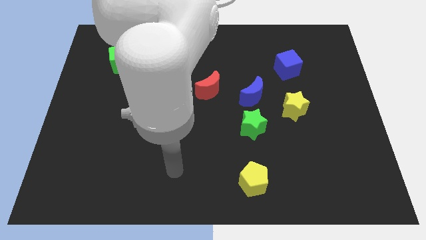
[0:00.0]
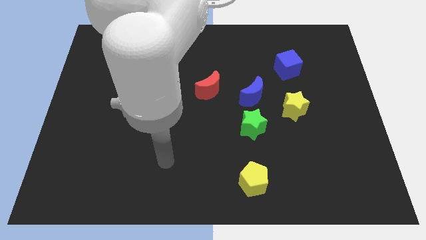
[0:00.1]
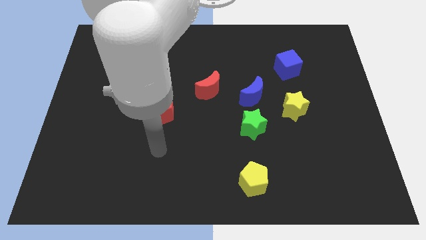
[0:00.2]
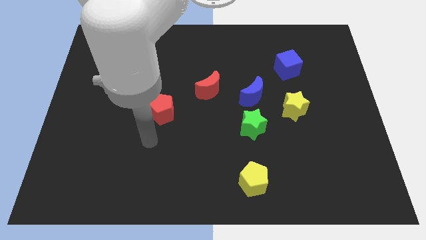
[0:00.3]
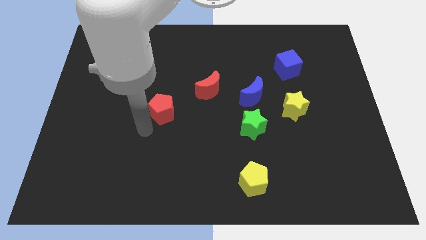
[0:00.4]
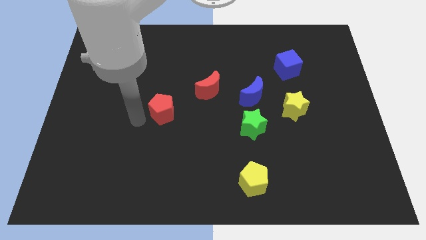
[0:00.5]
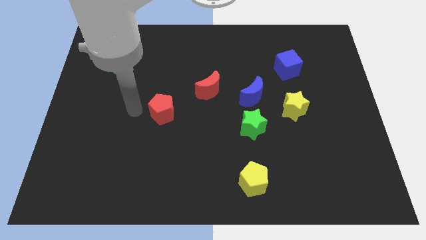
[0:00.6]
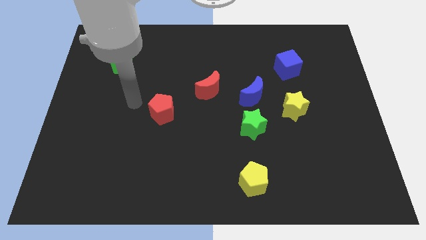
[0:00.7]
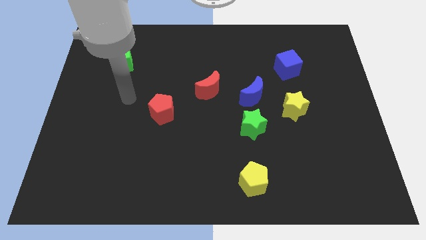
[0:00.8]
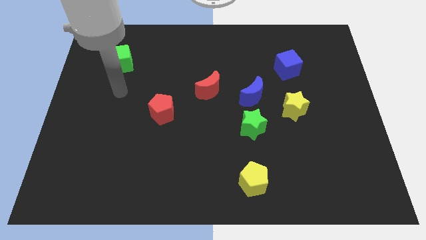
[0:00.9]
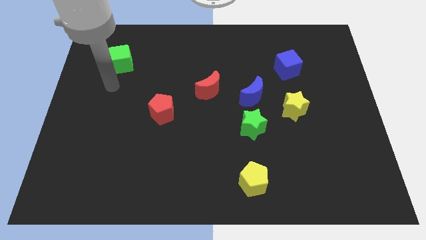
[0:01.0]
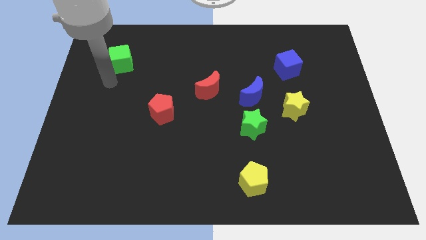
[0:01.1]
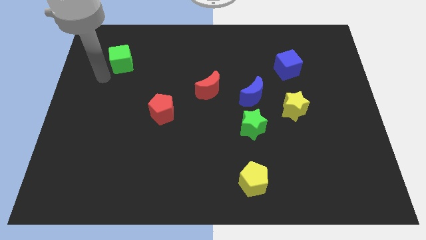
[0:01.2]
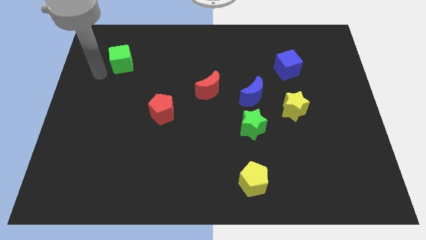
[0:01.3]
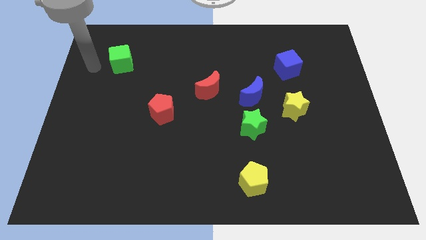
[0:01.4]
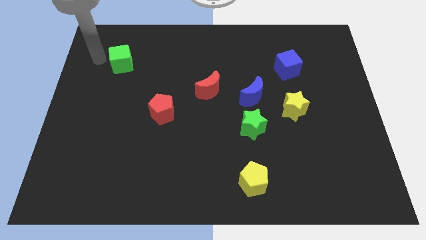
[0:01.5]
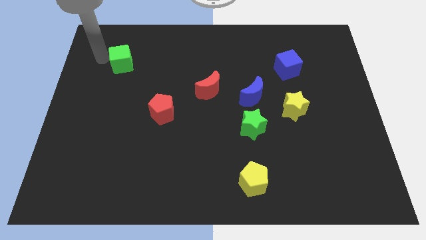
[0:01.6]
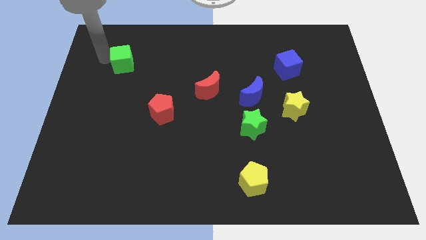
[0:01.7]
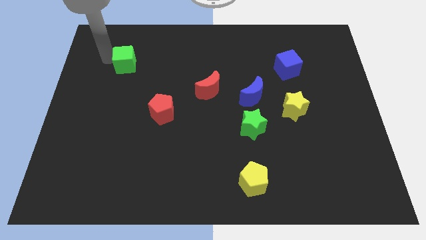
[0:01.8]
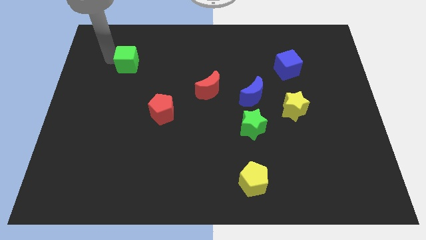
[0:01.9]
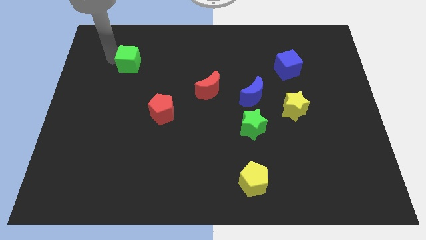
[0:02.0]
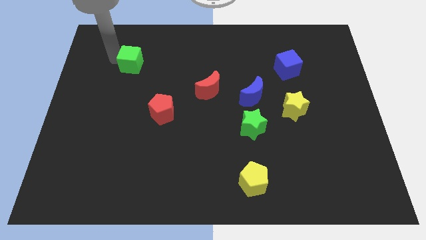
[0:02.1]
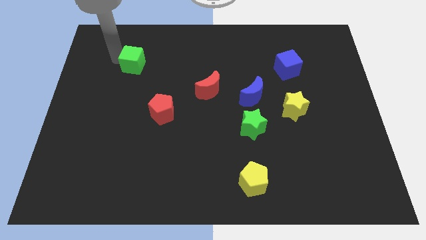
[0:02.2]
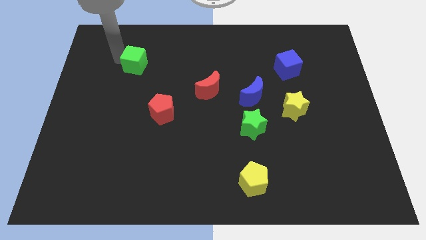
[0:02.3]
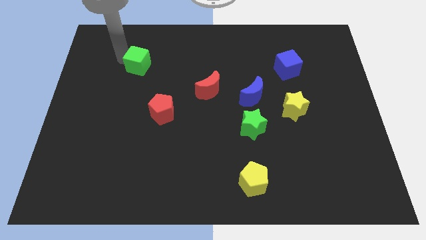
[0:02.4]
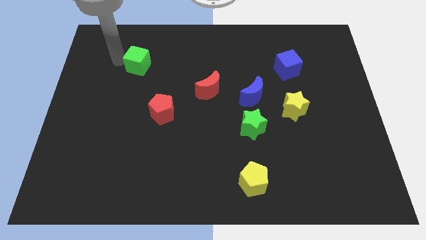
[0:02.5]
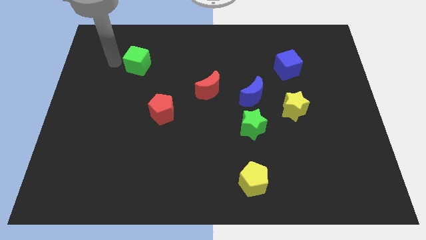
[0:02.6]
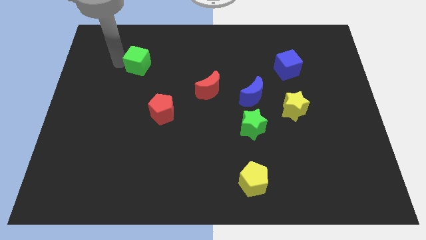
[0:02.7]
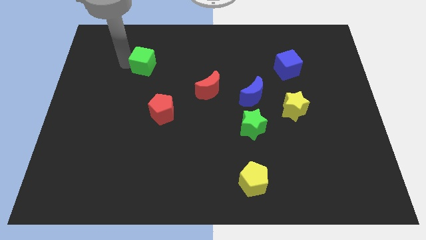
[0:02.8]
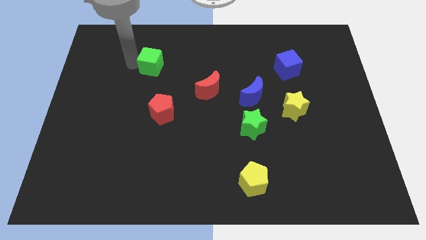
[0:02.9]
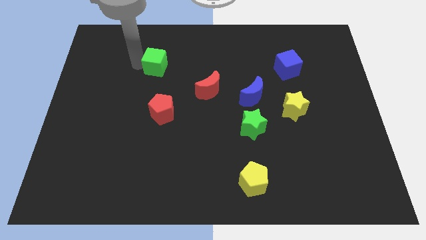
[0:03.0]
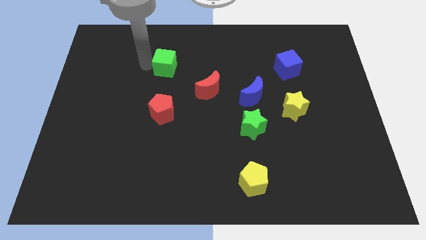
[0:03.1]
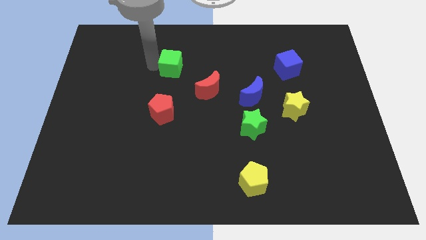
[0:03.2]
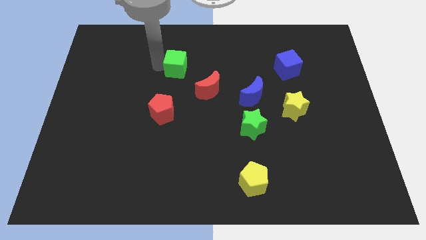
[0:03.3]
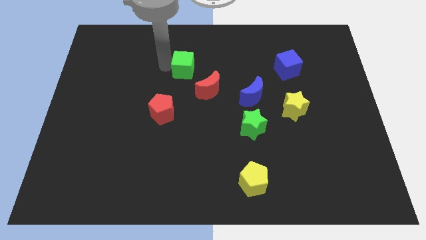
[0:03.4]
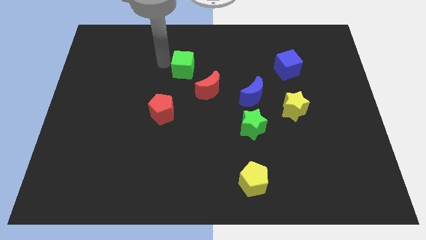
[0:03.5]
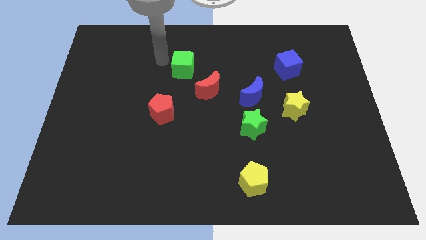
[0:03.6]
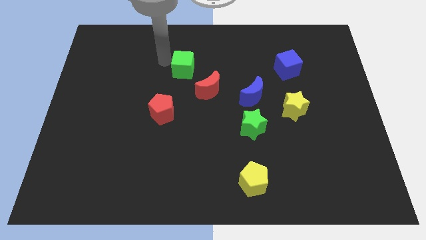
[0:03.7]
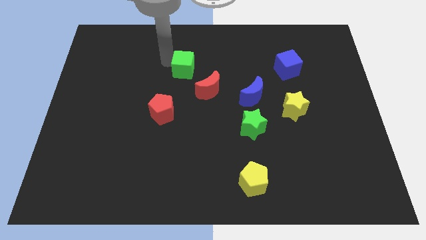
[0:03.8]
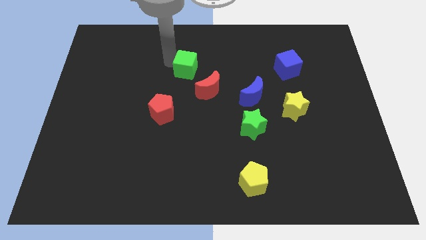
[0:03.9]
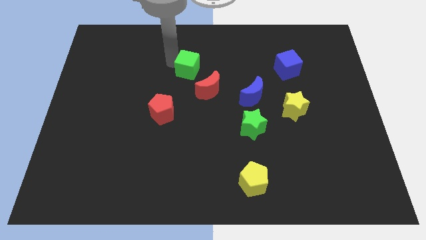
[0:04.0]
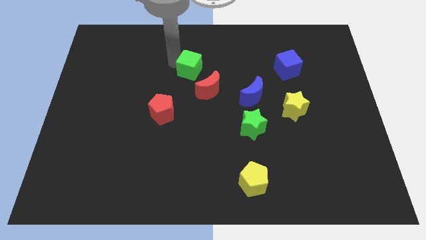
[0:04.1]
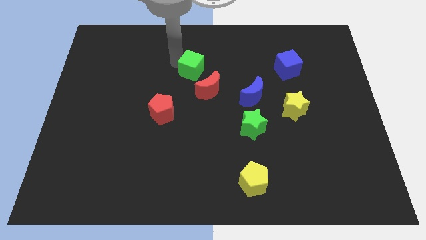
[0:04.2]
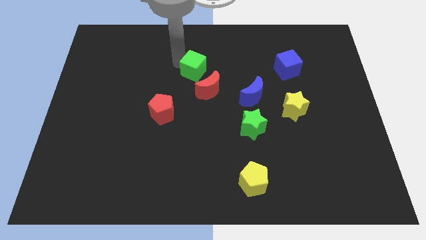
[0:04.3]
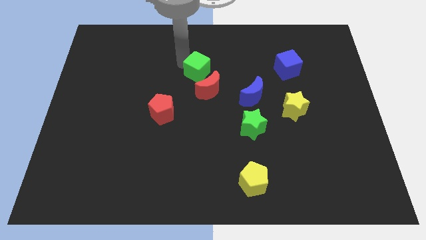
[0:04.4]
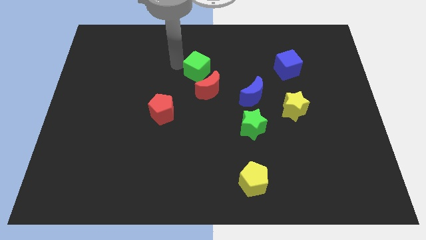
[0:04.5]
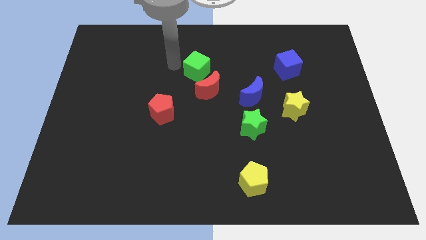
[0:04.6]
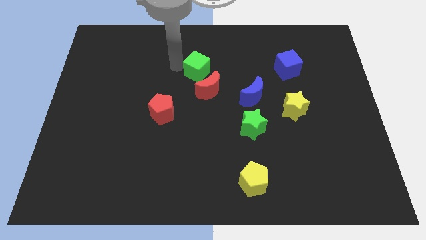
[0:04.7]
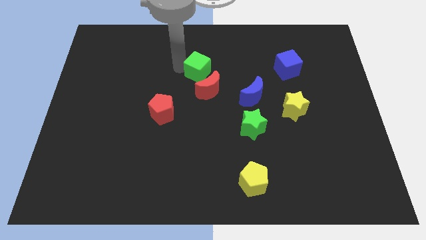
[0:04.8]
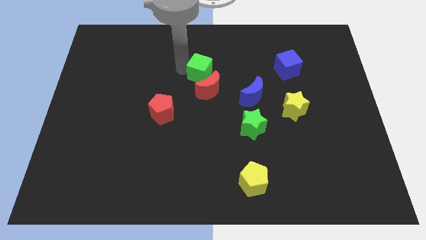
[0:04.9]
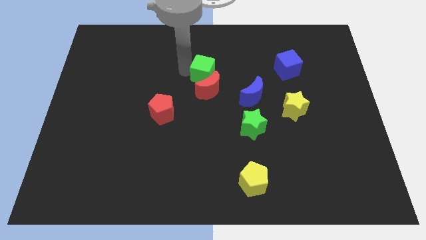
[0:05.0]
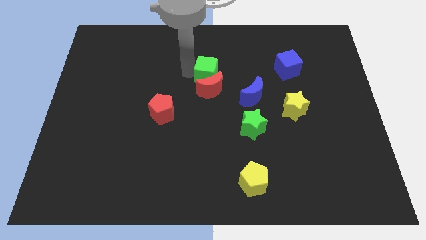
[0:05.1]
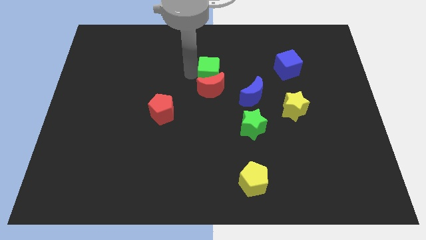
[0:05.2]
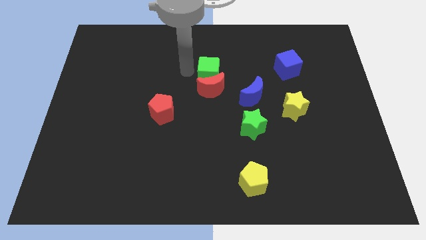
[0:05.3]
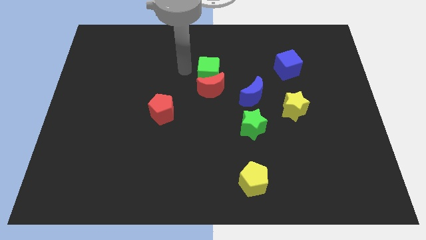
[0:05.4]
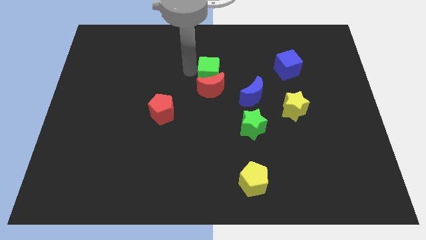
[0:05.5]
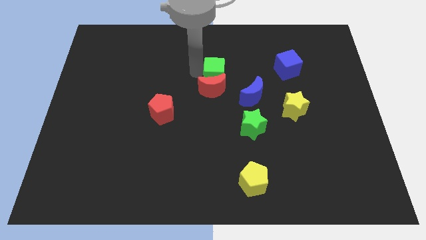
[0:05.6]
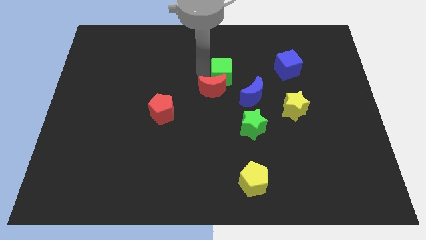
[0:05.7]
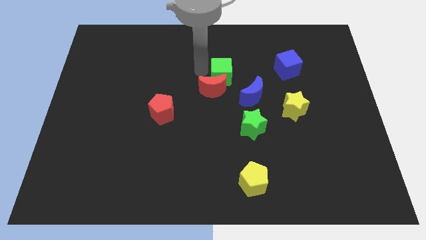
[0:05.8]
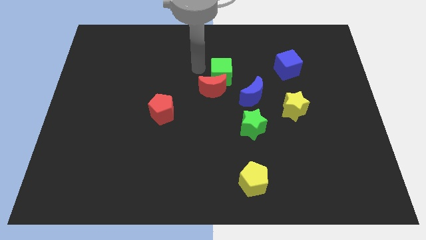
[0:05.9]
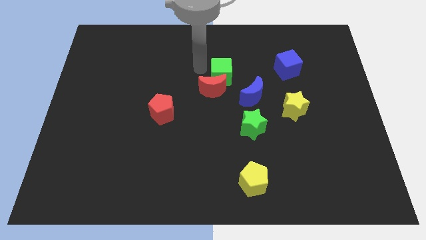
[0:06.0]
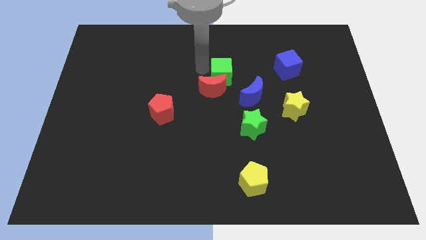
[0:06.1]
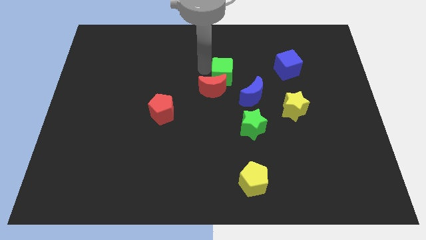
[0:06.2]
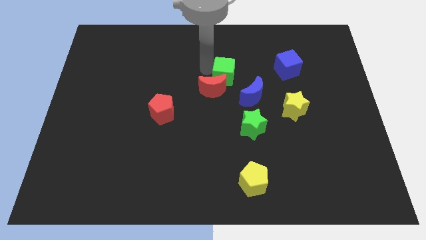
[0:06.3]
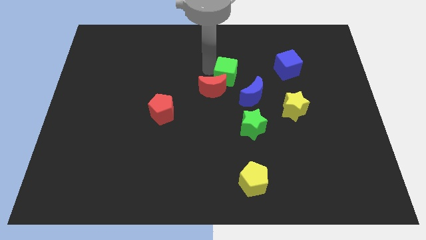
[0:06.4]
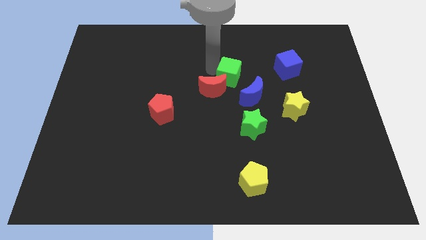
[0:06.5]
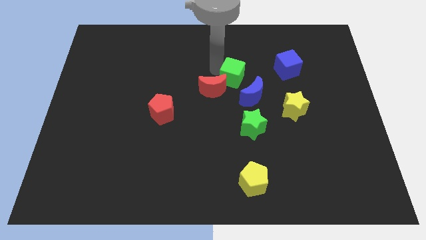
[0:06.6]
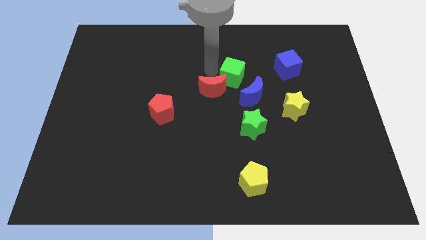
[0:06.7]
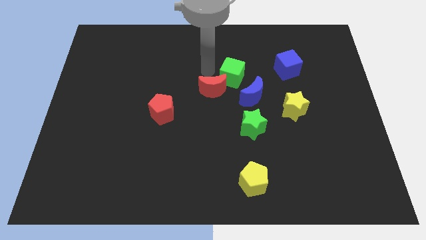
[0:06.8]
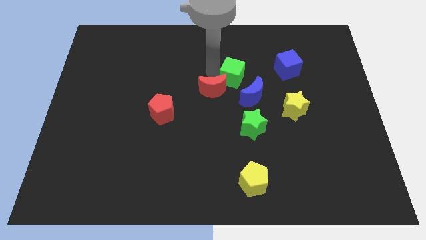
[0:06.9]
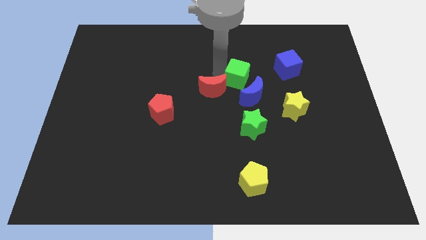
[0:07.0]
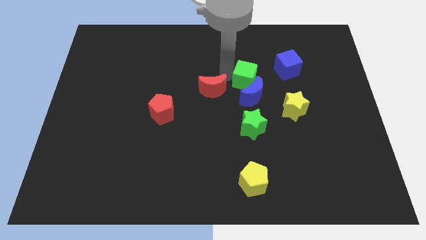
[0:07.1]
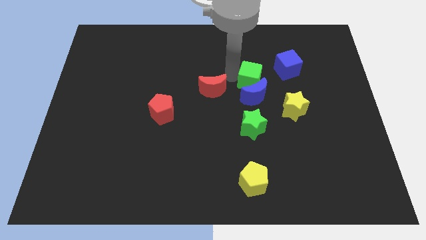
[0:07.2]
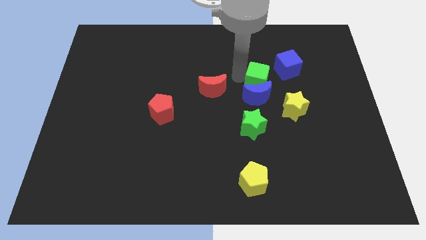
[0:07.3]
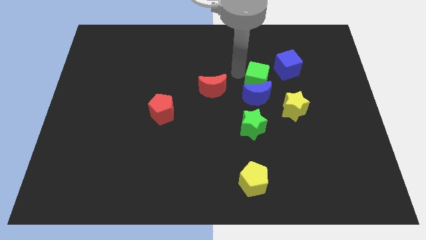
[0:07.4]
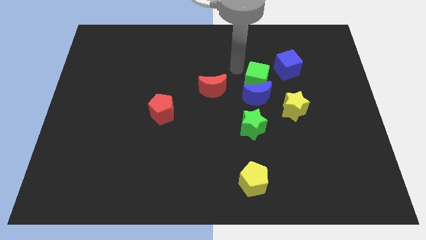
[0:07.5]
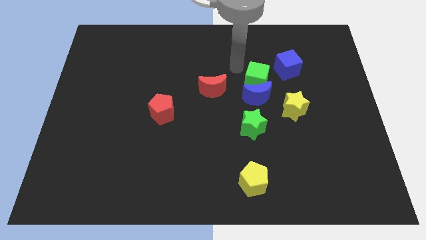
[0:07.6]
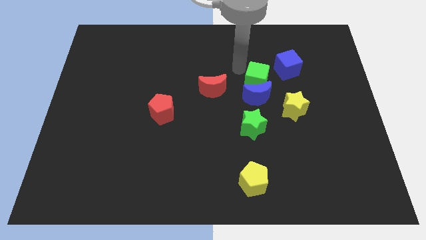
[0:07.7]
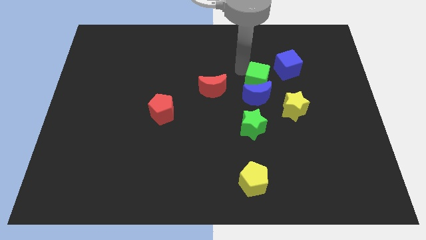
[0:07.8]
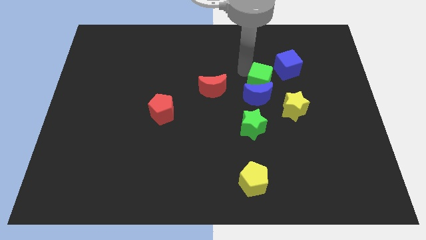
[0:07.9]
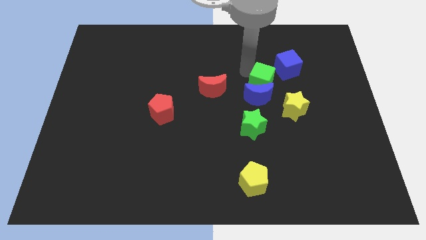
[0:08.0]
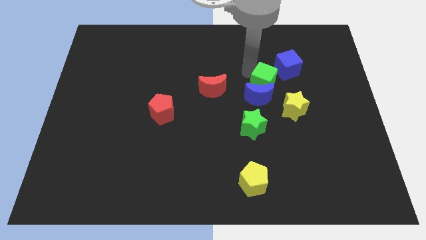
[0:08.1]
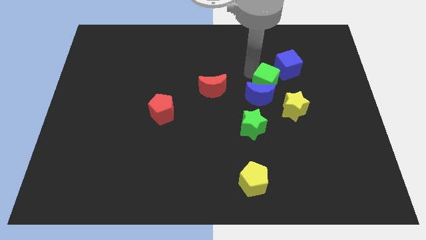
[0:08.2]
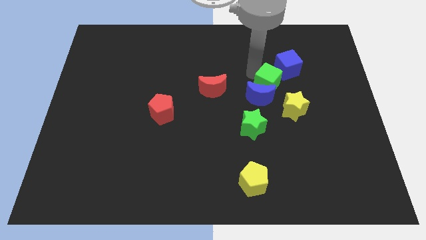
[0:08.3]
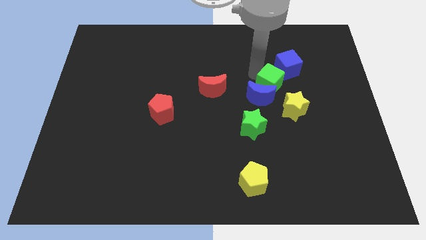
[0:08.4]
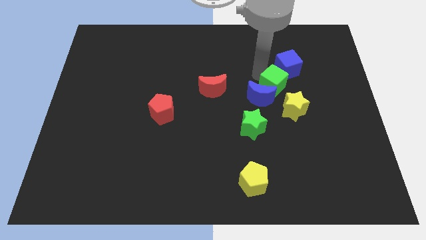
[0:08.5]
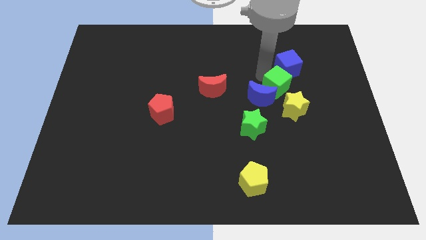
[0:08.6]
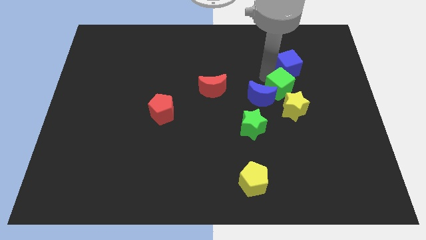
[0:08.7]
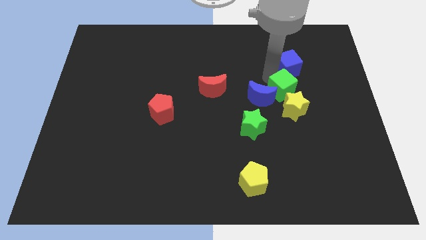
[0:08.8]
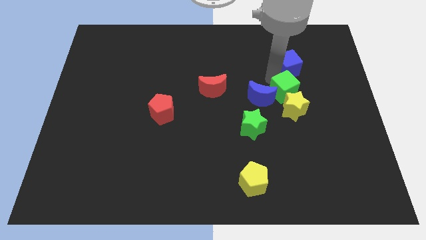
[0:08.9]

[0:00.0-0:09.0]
push the green cube to the yellow star
